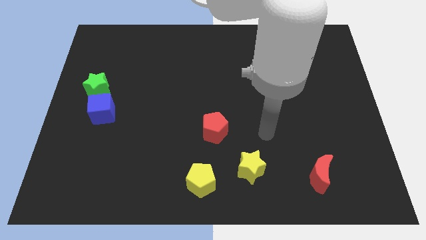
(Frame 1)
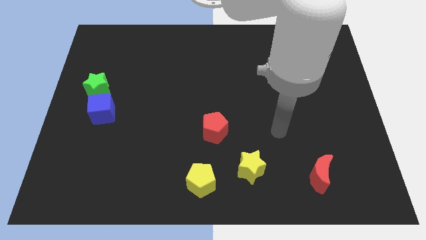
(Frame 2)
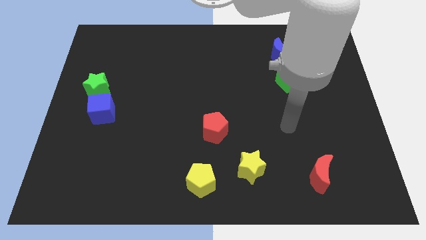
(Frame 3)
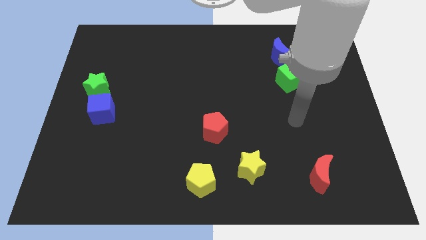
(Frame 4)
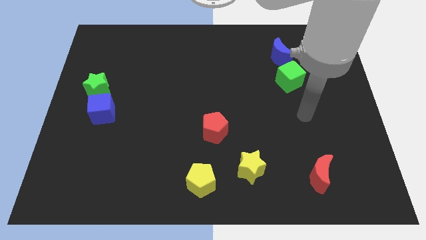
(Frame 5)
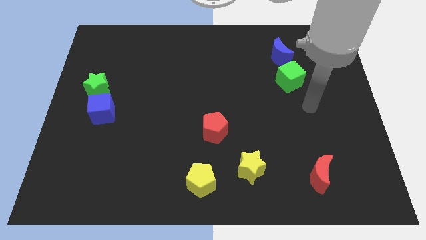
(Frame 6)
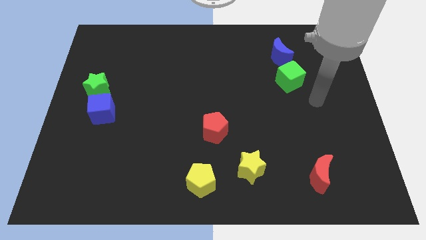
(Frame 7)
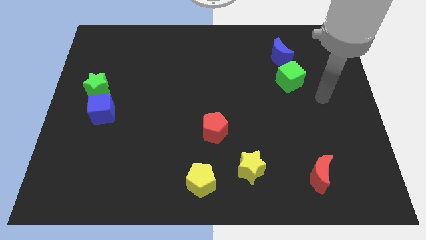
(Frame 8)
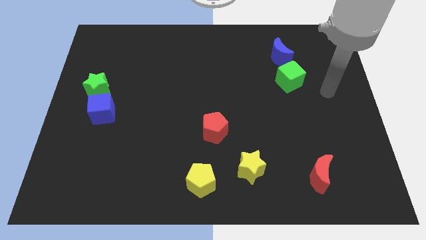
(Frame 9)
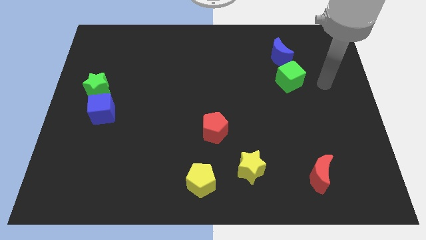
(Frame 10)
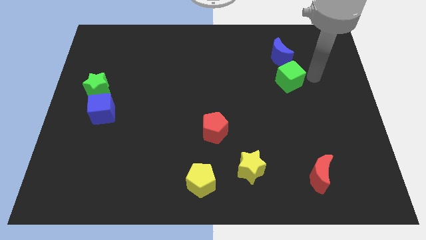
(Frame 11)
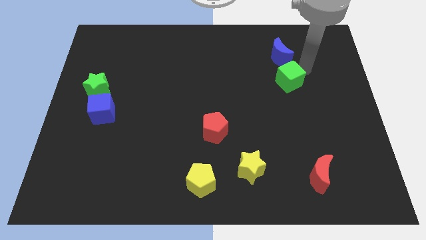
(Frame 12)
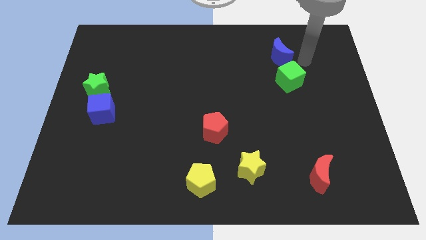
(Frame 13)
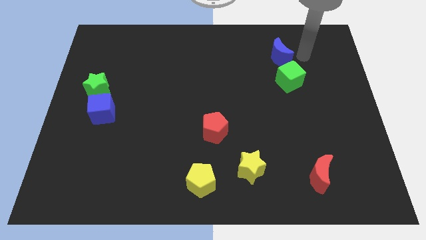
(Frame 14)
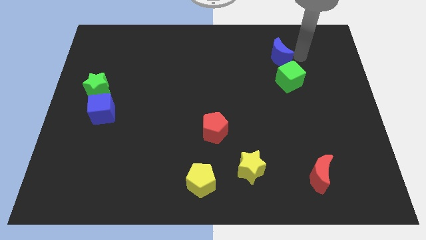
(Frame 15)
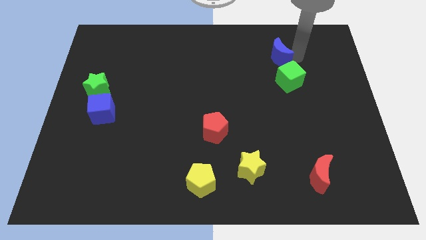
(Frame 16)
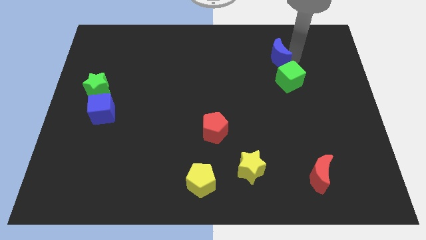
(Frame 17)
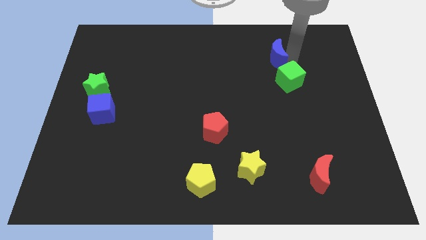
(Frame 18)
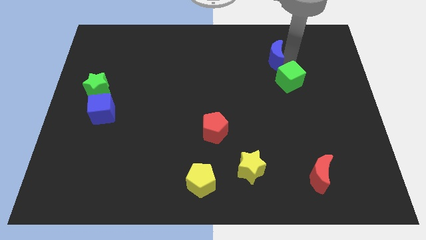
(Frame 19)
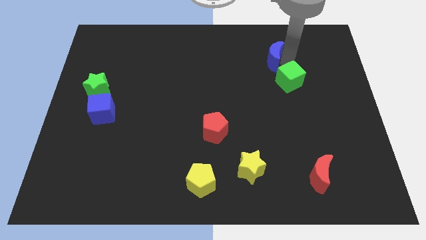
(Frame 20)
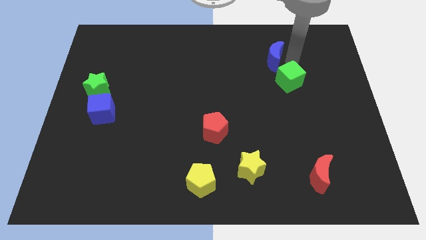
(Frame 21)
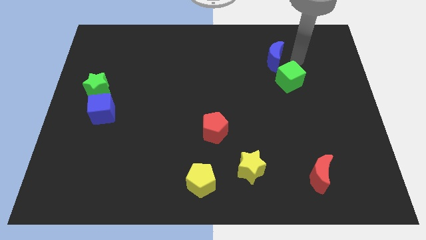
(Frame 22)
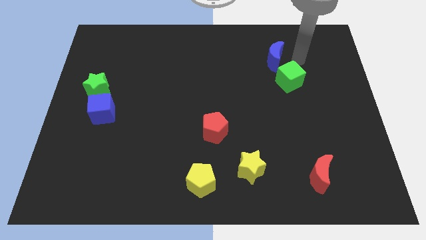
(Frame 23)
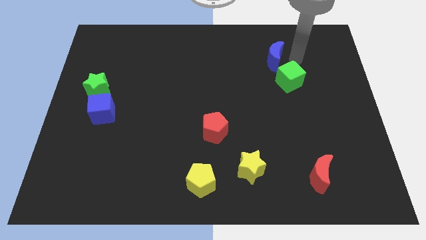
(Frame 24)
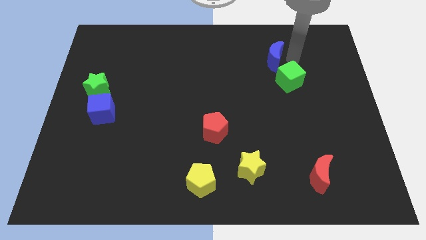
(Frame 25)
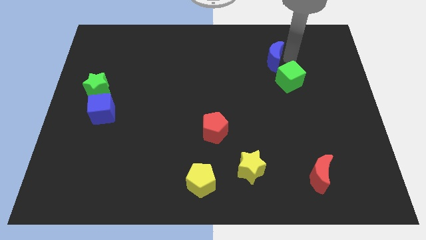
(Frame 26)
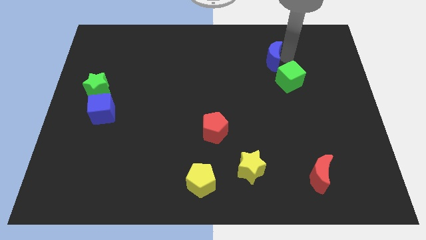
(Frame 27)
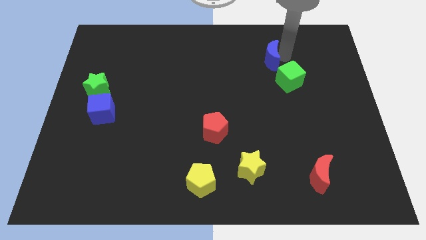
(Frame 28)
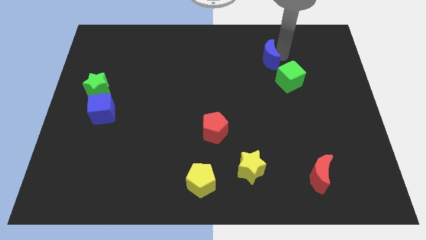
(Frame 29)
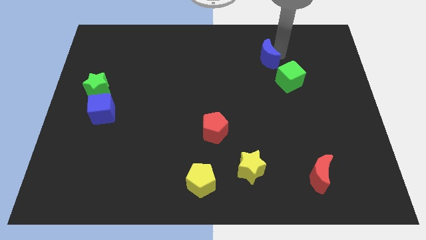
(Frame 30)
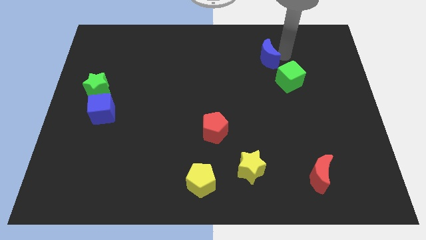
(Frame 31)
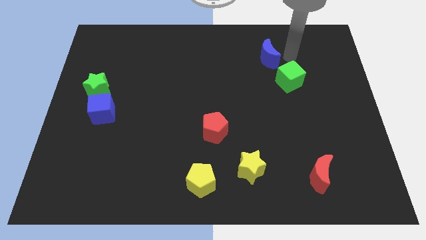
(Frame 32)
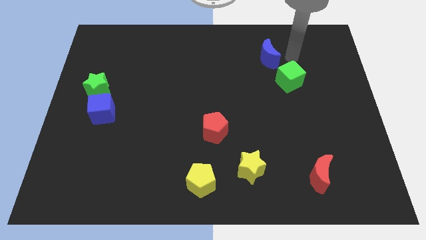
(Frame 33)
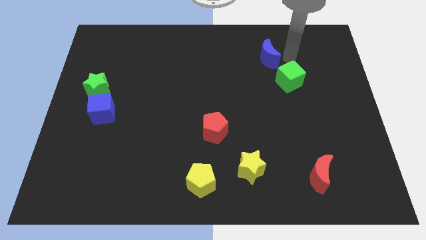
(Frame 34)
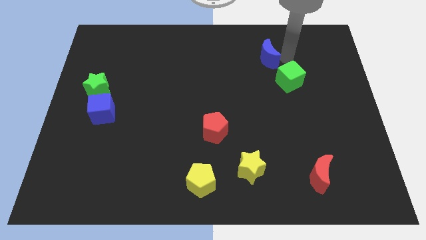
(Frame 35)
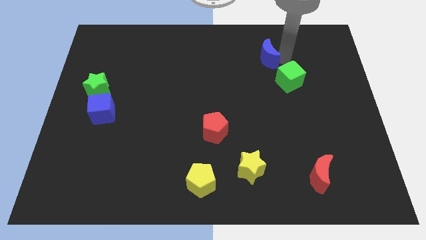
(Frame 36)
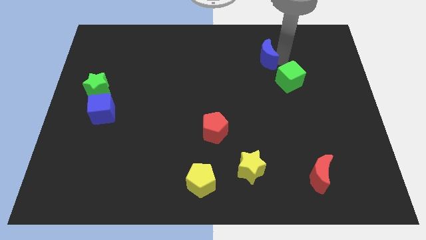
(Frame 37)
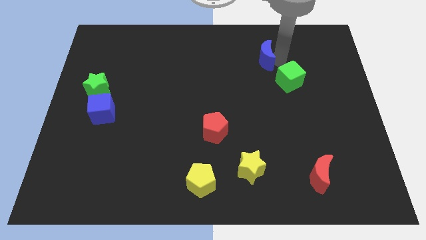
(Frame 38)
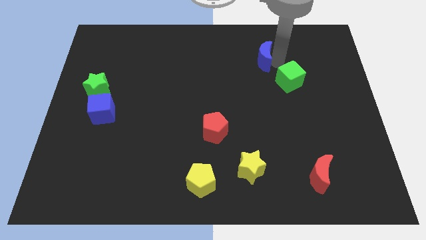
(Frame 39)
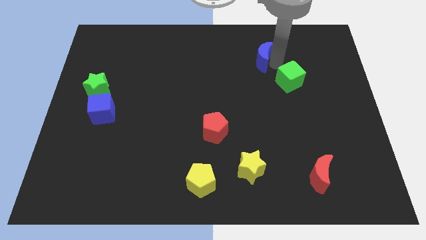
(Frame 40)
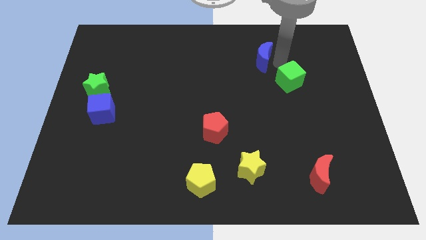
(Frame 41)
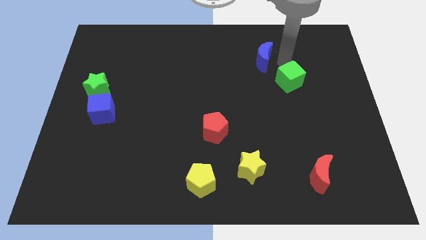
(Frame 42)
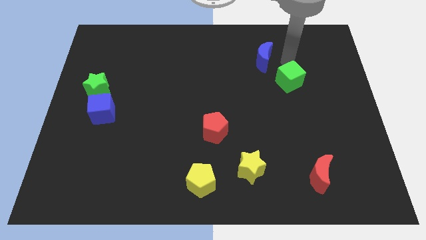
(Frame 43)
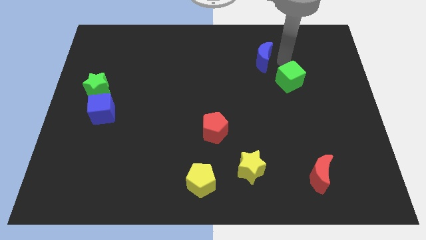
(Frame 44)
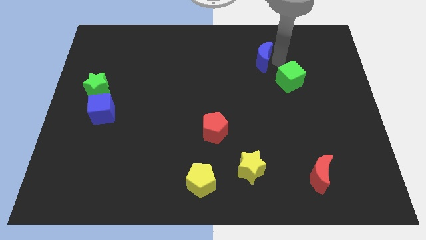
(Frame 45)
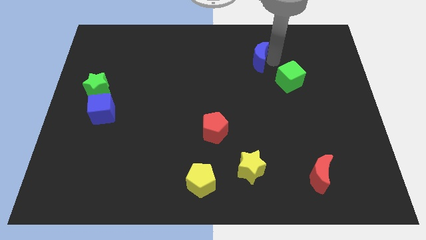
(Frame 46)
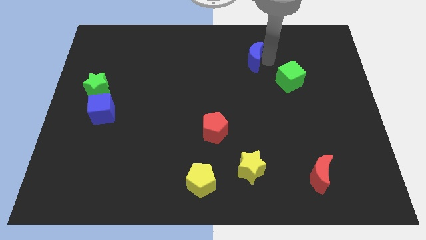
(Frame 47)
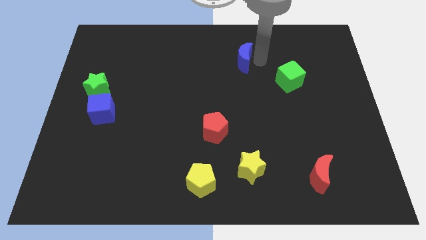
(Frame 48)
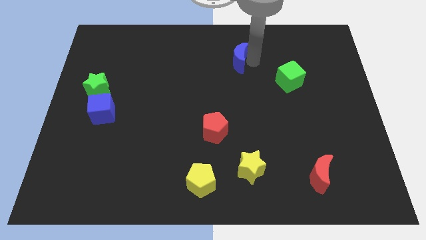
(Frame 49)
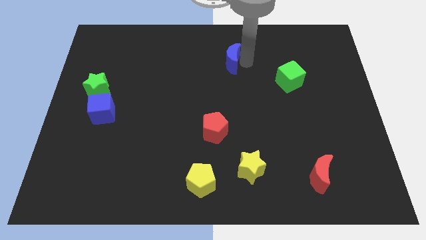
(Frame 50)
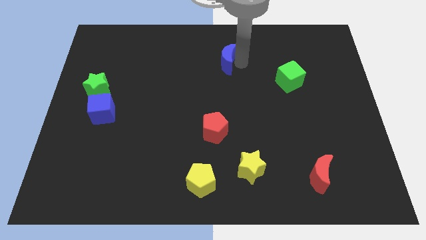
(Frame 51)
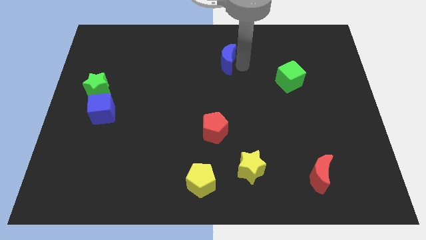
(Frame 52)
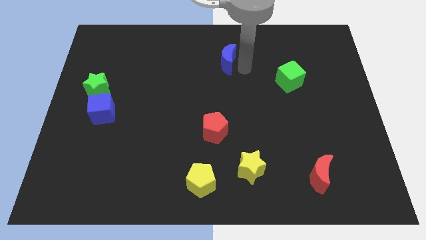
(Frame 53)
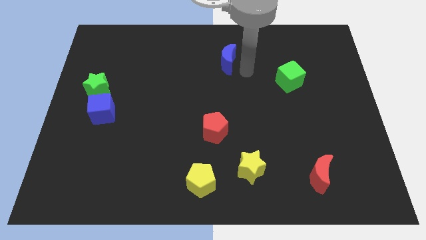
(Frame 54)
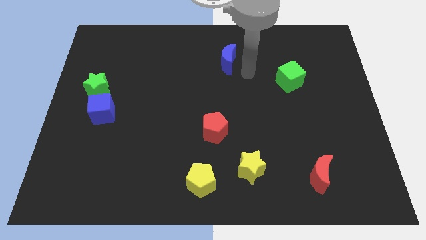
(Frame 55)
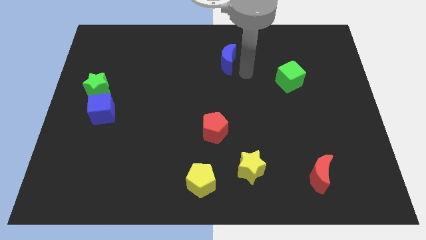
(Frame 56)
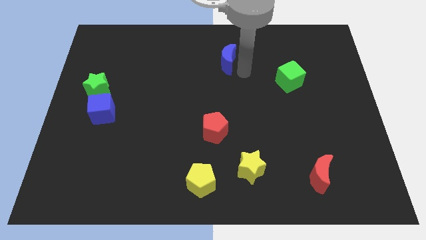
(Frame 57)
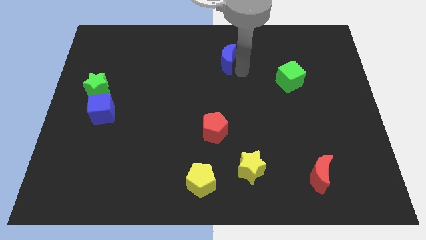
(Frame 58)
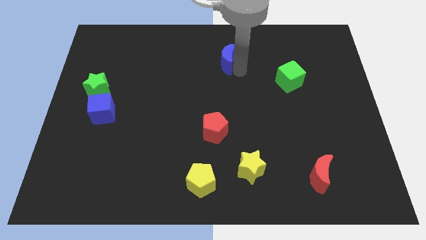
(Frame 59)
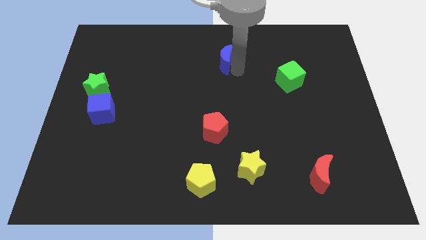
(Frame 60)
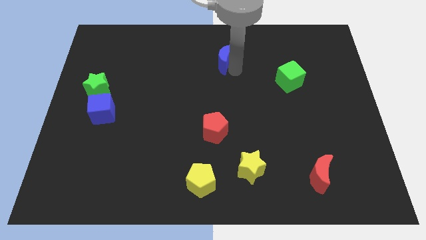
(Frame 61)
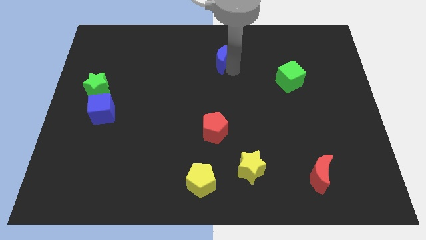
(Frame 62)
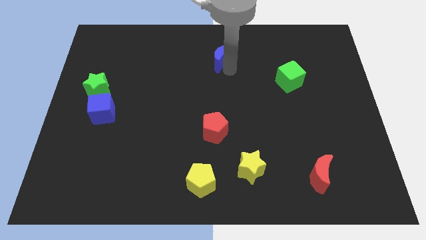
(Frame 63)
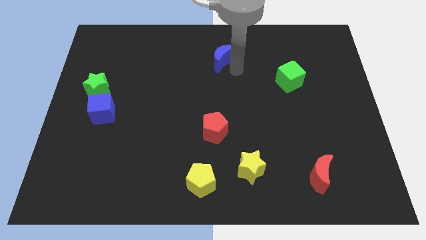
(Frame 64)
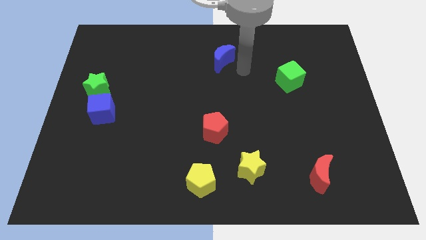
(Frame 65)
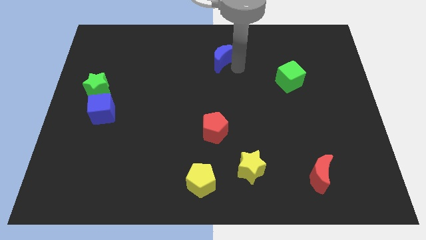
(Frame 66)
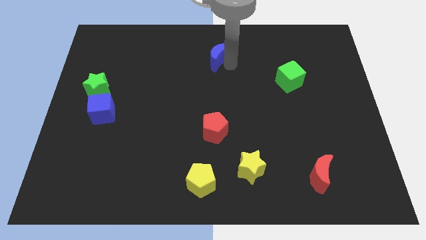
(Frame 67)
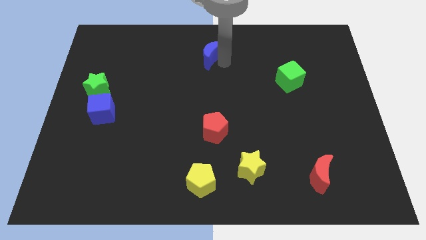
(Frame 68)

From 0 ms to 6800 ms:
push the blue moon to the towards your base
